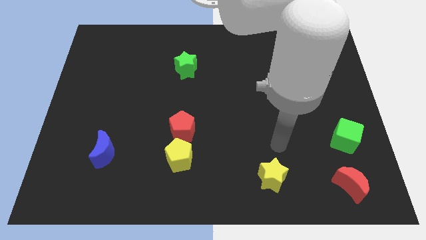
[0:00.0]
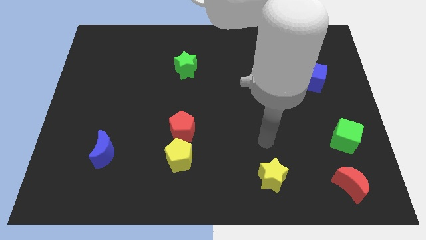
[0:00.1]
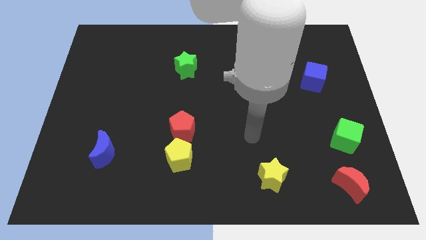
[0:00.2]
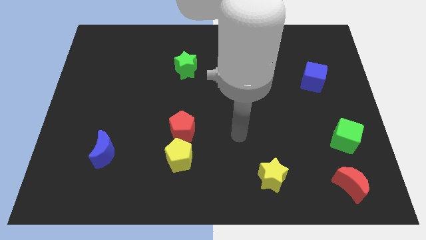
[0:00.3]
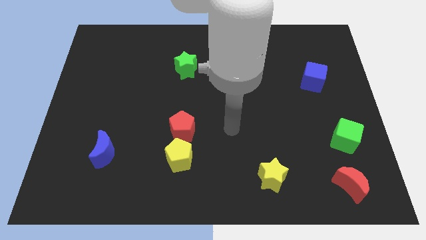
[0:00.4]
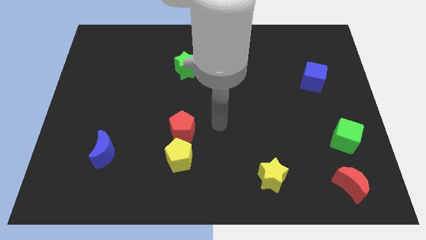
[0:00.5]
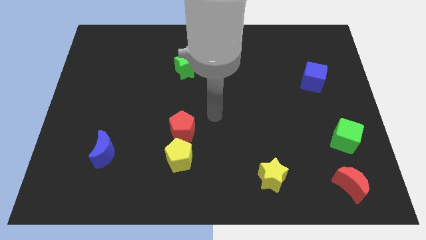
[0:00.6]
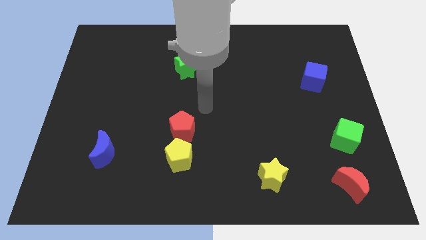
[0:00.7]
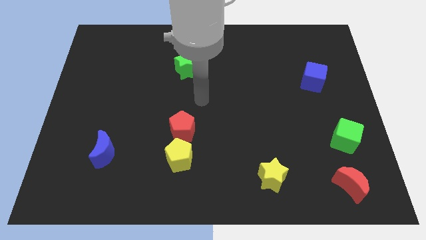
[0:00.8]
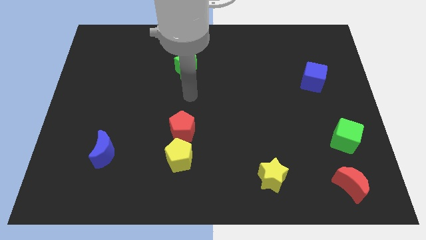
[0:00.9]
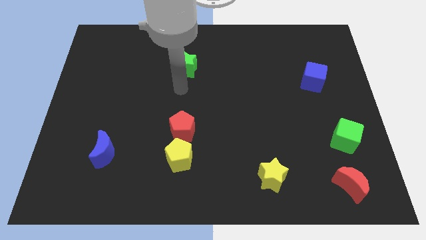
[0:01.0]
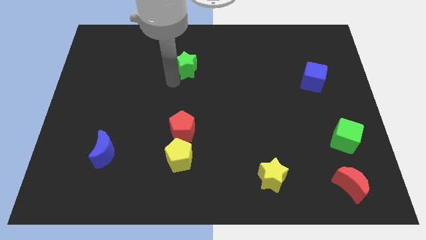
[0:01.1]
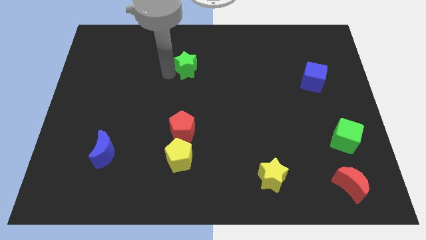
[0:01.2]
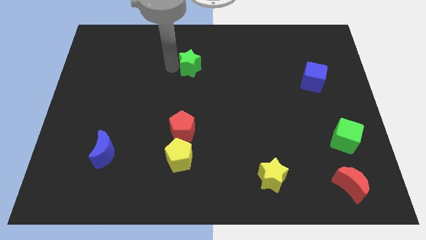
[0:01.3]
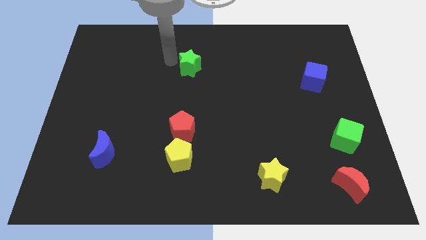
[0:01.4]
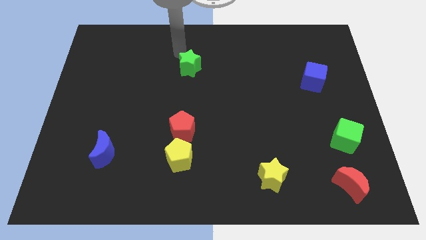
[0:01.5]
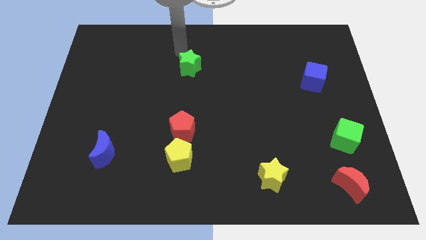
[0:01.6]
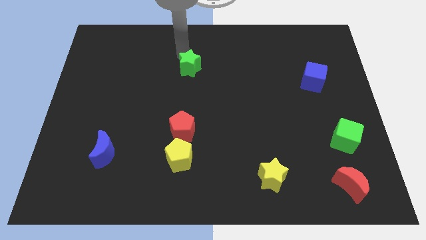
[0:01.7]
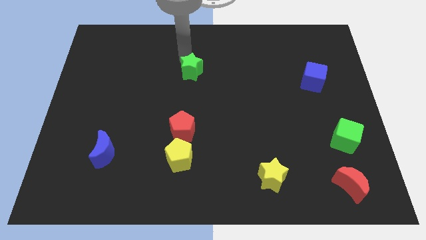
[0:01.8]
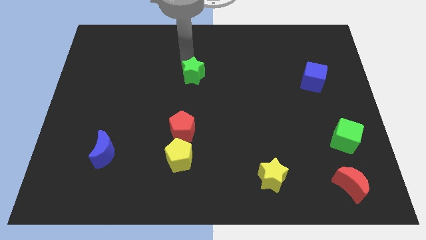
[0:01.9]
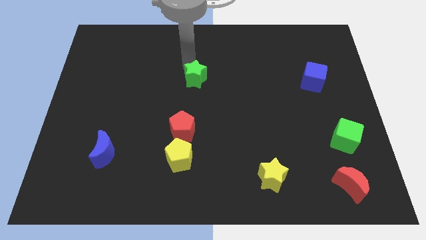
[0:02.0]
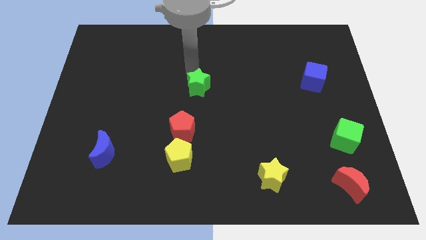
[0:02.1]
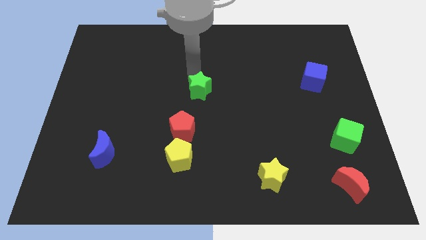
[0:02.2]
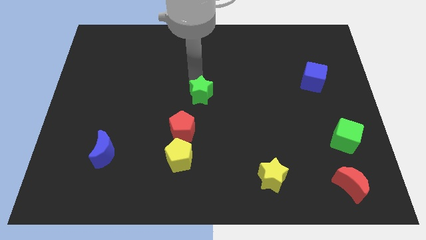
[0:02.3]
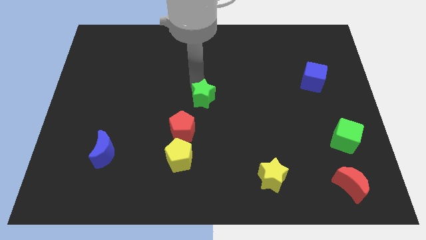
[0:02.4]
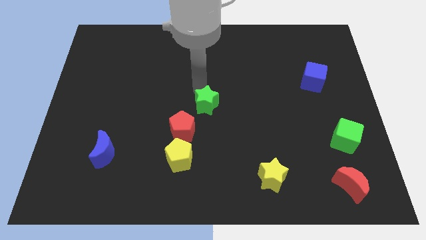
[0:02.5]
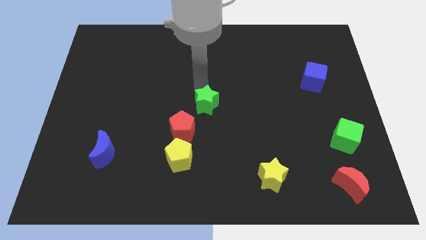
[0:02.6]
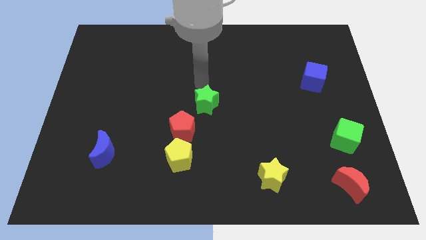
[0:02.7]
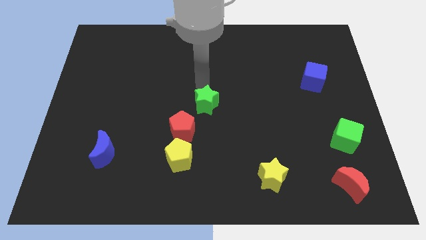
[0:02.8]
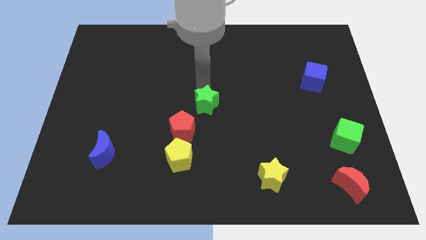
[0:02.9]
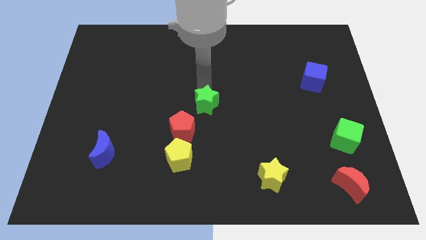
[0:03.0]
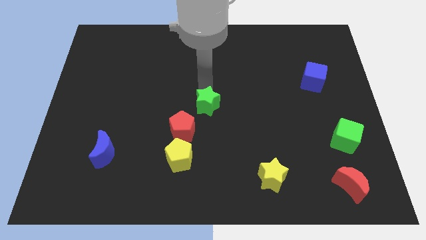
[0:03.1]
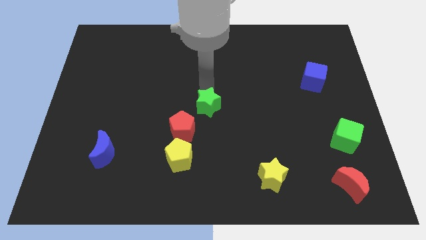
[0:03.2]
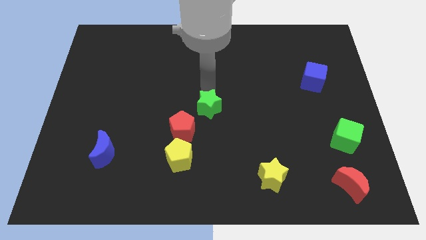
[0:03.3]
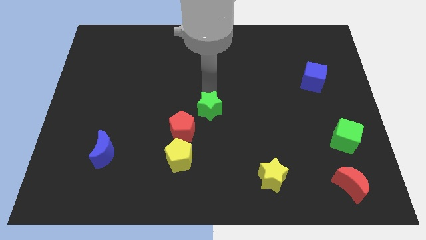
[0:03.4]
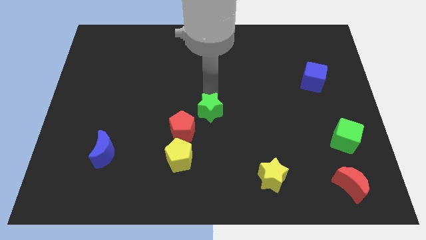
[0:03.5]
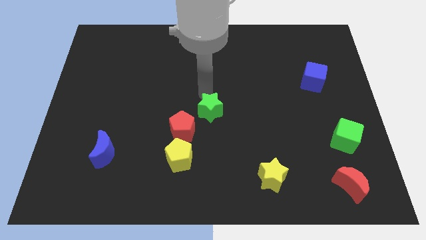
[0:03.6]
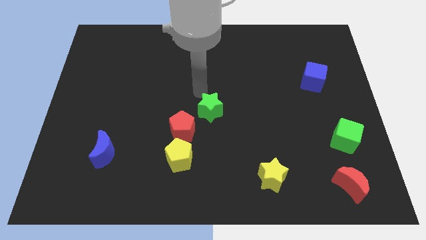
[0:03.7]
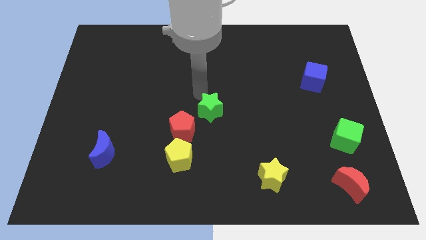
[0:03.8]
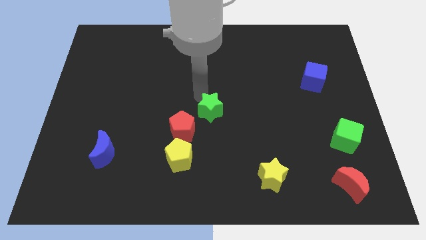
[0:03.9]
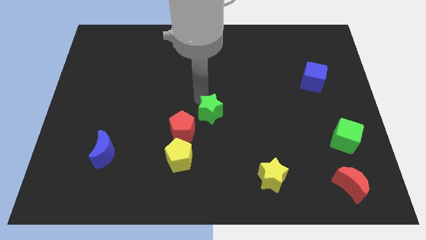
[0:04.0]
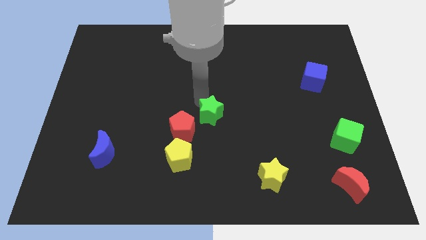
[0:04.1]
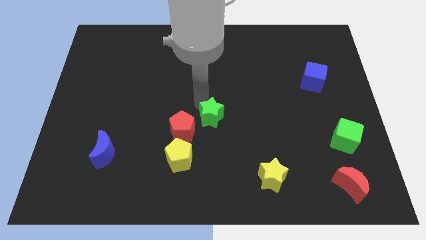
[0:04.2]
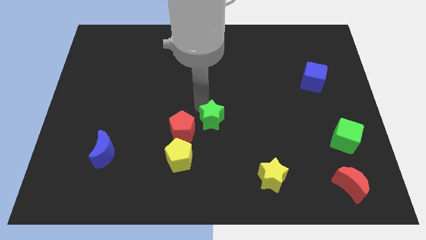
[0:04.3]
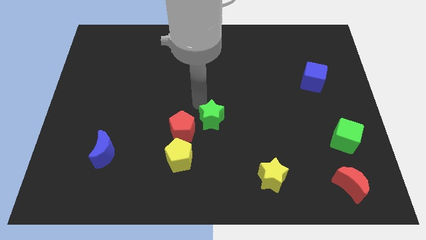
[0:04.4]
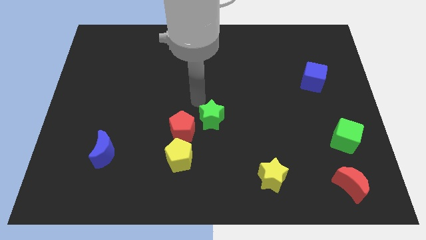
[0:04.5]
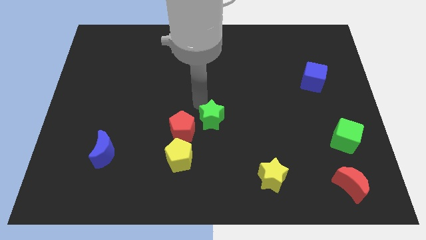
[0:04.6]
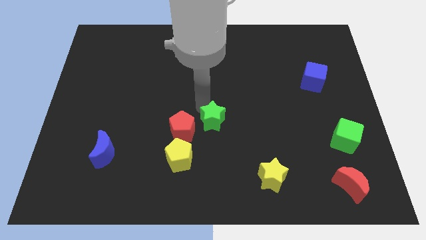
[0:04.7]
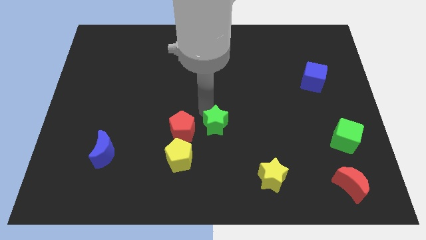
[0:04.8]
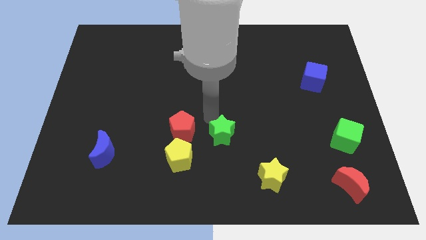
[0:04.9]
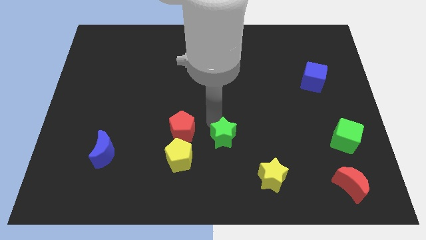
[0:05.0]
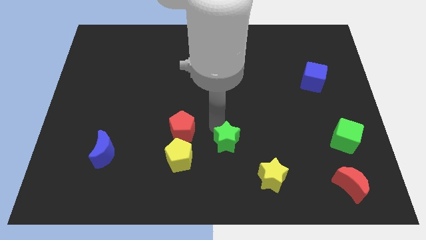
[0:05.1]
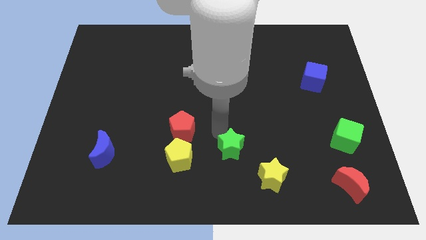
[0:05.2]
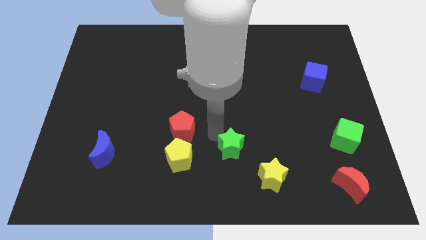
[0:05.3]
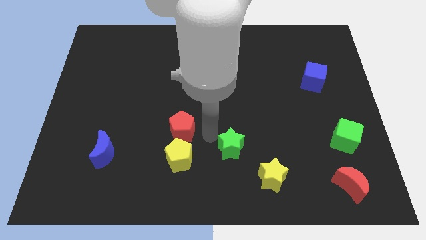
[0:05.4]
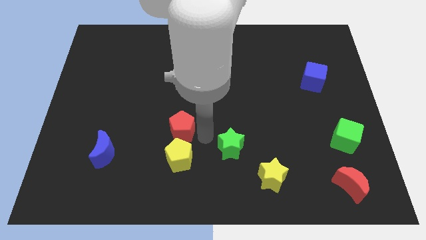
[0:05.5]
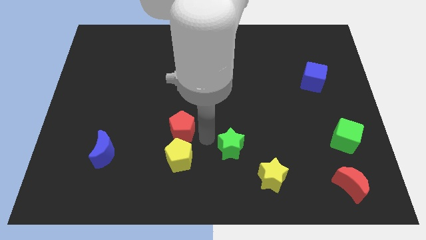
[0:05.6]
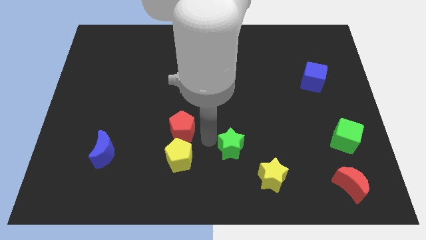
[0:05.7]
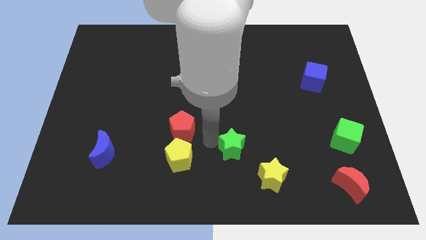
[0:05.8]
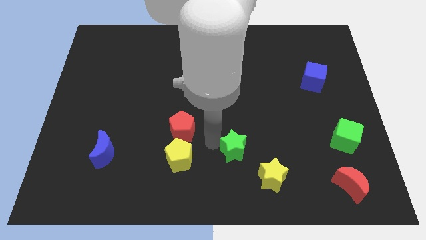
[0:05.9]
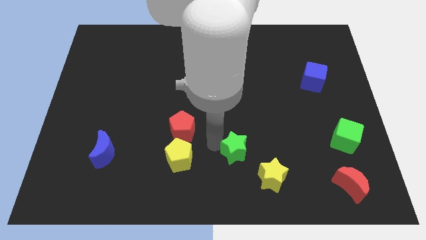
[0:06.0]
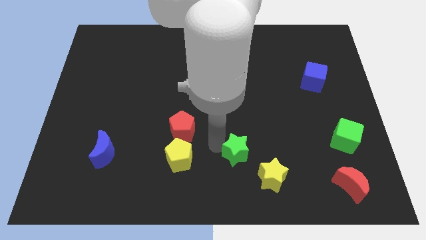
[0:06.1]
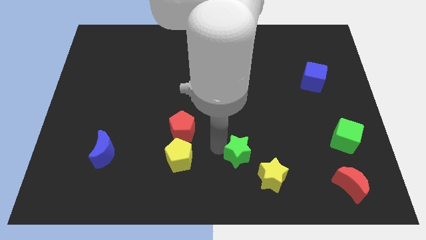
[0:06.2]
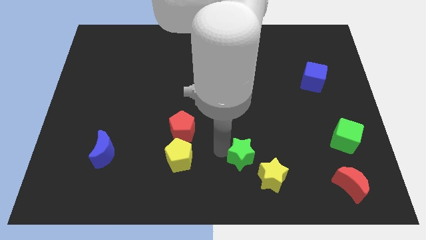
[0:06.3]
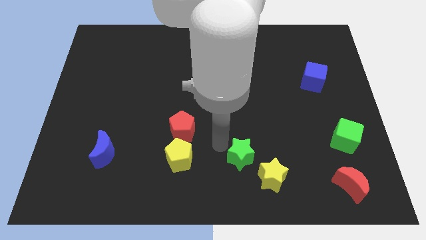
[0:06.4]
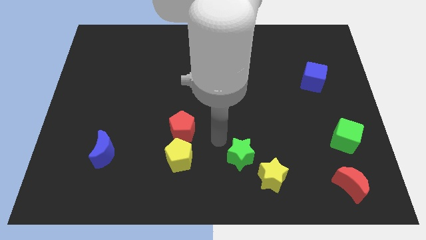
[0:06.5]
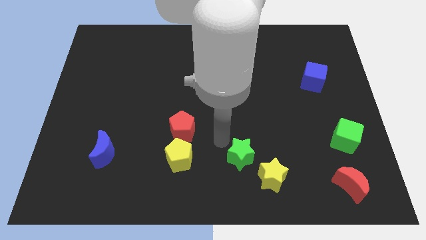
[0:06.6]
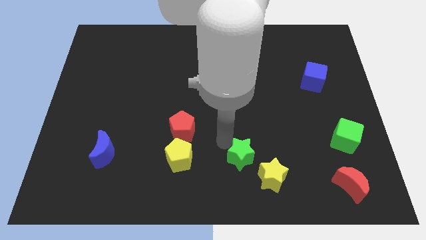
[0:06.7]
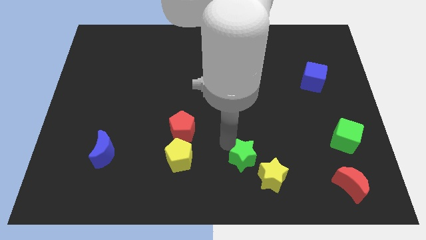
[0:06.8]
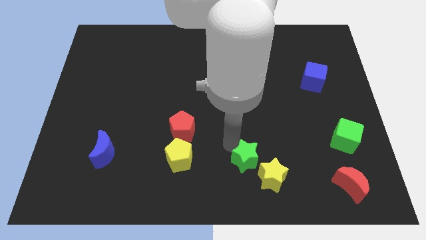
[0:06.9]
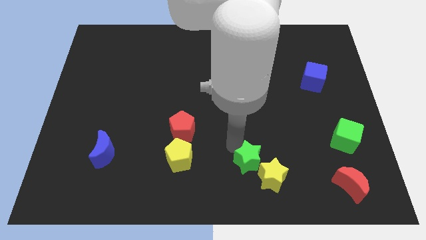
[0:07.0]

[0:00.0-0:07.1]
slide the green star to the yellow star
